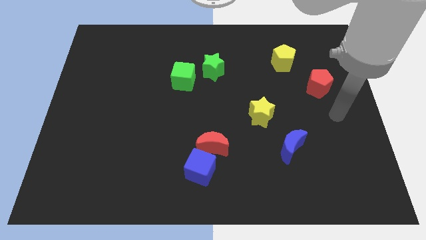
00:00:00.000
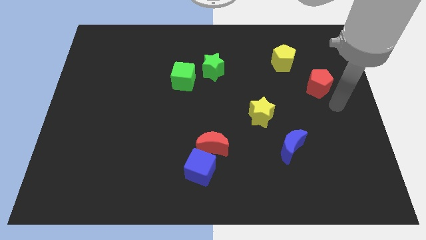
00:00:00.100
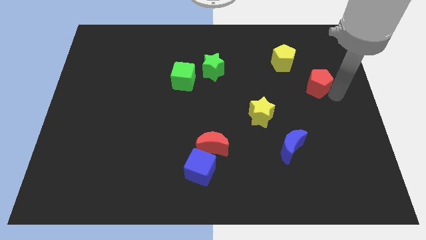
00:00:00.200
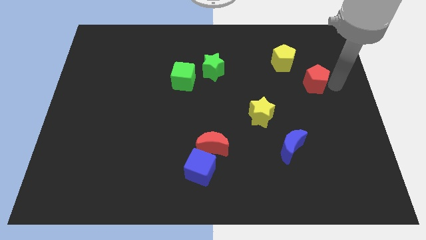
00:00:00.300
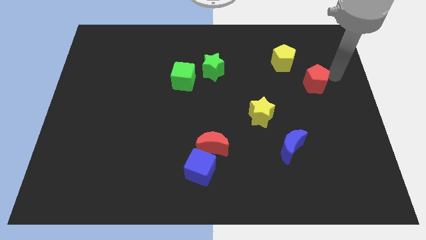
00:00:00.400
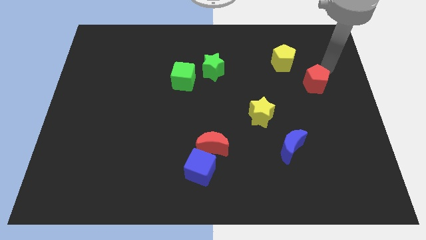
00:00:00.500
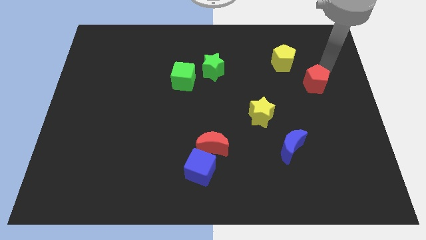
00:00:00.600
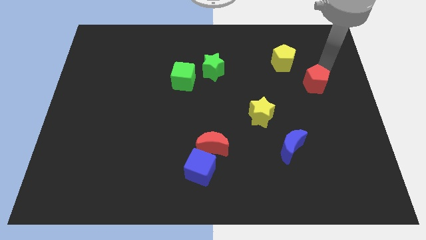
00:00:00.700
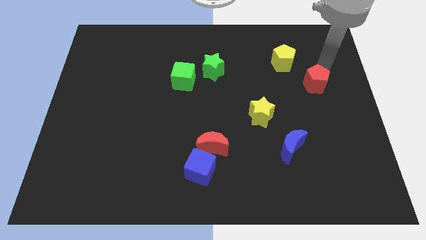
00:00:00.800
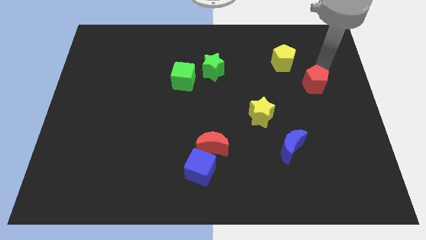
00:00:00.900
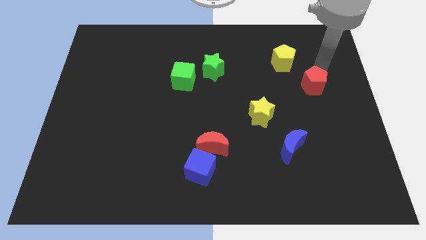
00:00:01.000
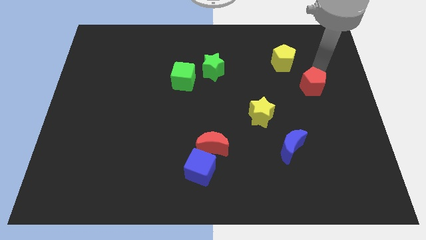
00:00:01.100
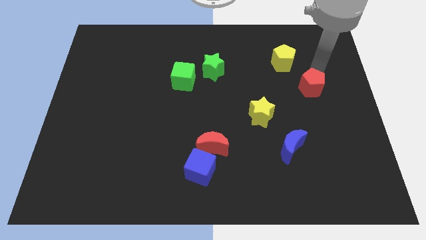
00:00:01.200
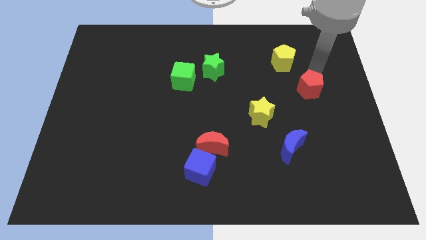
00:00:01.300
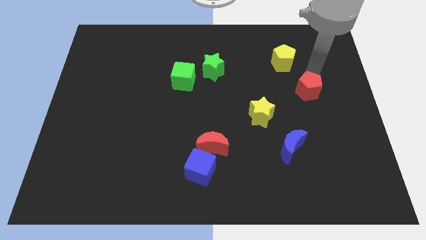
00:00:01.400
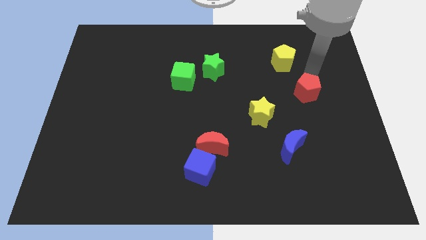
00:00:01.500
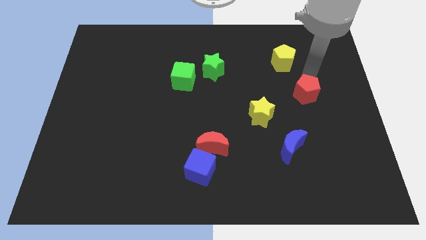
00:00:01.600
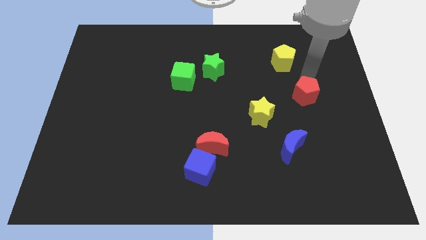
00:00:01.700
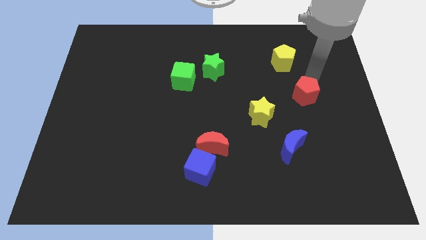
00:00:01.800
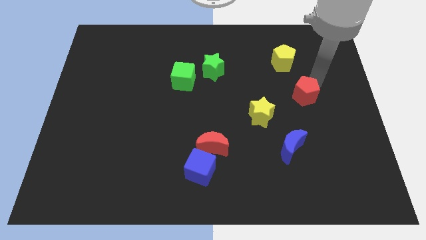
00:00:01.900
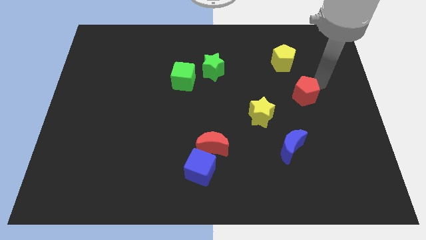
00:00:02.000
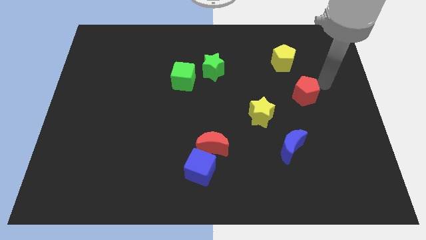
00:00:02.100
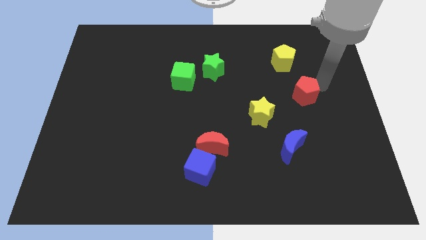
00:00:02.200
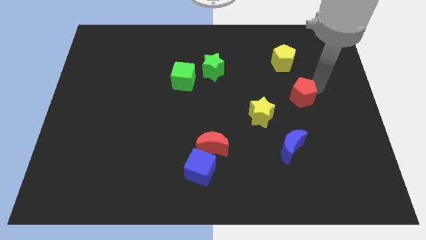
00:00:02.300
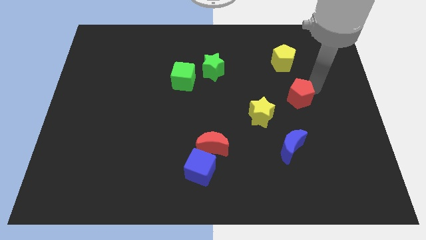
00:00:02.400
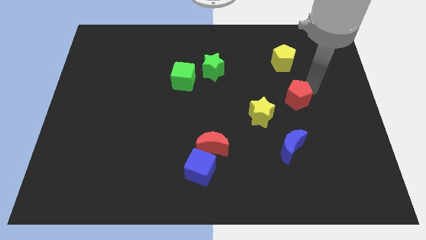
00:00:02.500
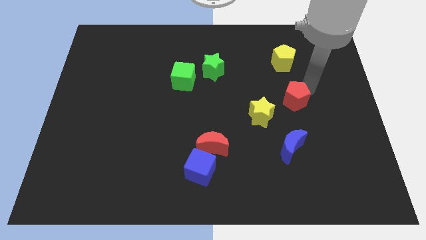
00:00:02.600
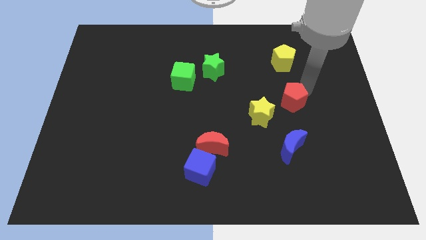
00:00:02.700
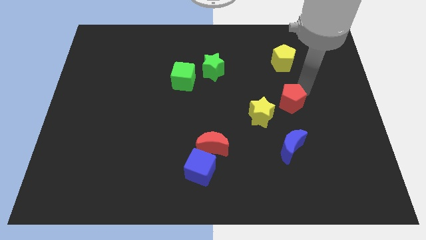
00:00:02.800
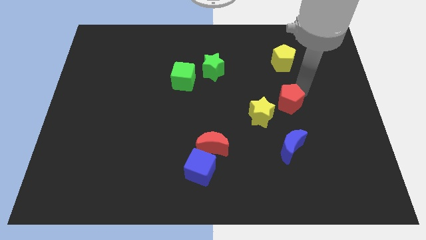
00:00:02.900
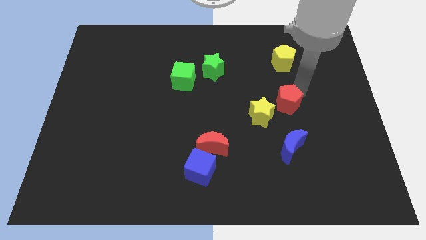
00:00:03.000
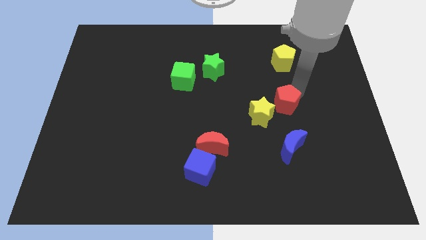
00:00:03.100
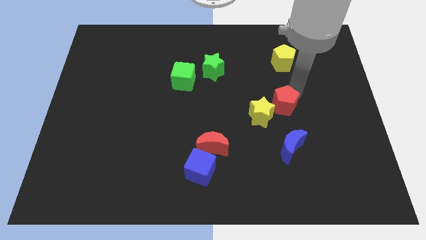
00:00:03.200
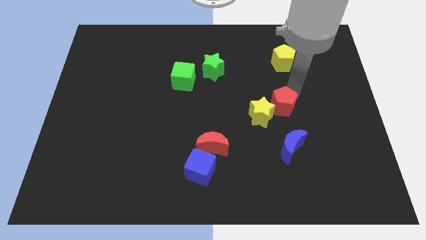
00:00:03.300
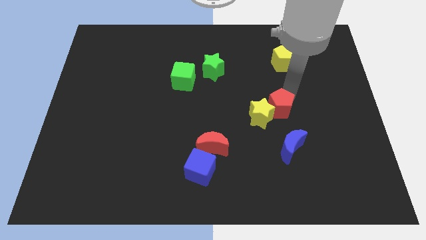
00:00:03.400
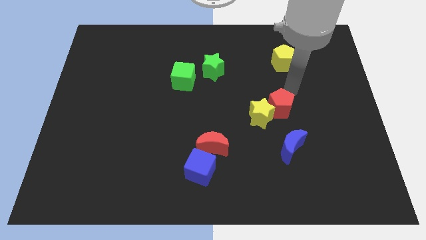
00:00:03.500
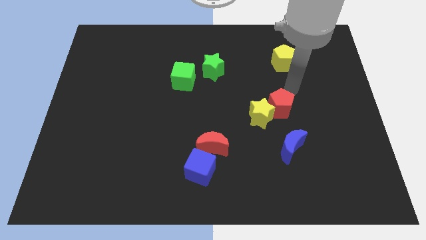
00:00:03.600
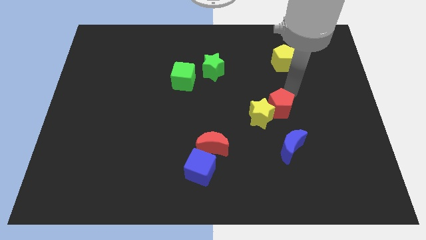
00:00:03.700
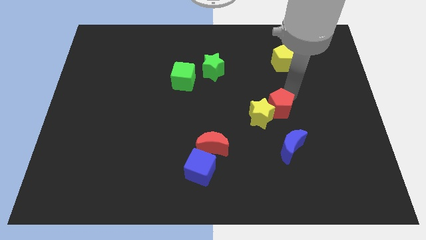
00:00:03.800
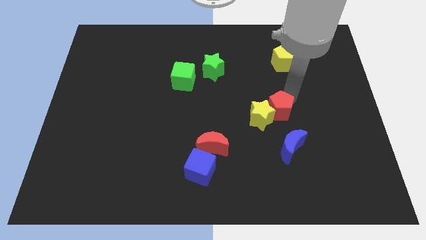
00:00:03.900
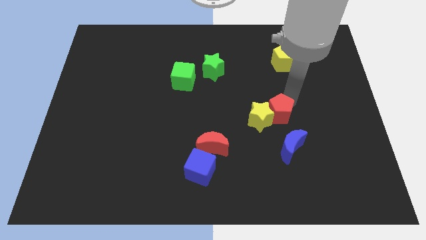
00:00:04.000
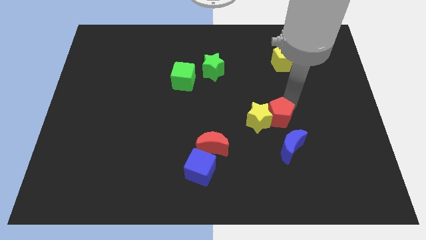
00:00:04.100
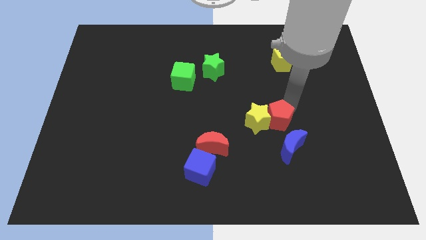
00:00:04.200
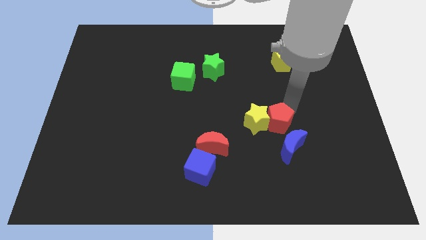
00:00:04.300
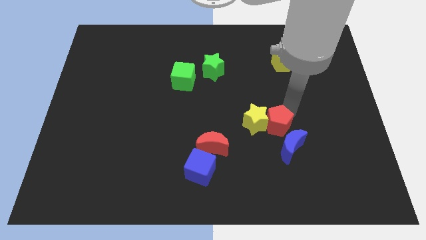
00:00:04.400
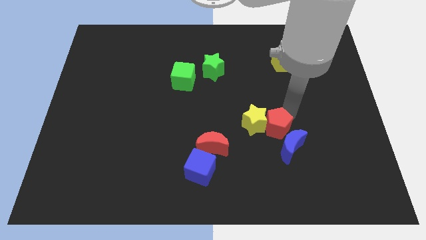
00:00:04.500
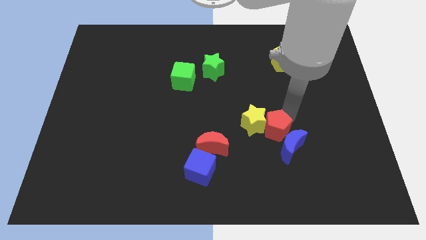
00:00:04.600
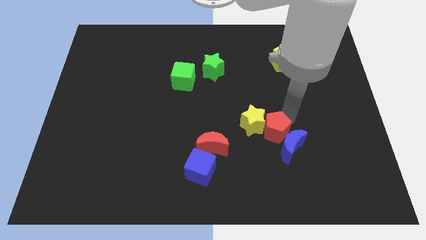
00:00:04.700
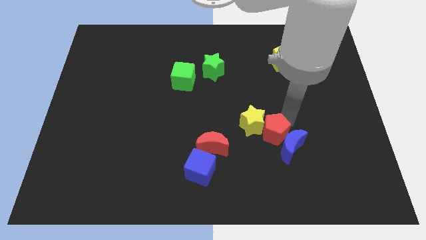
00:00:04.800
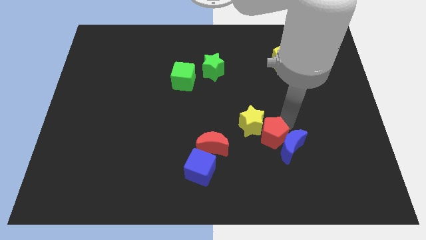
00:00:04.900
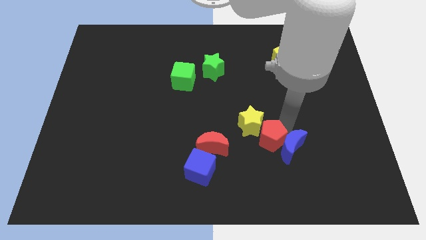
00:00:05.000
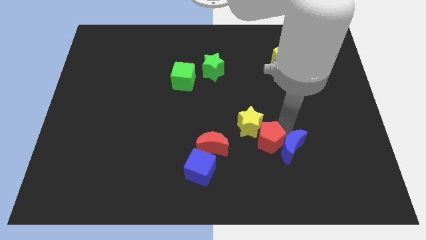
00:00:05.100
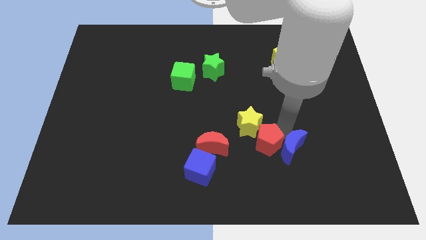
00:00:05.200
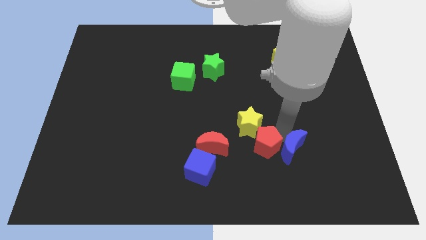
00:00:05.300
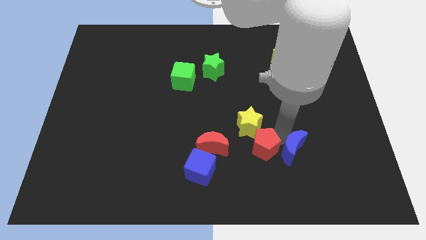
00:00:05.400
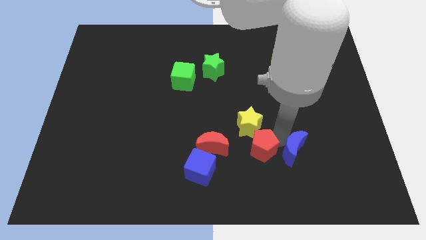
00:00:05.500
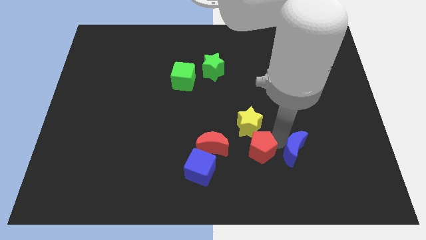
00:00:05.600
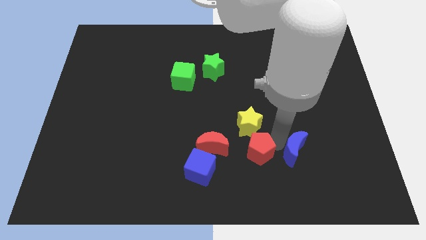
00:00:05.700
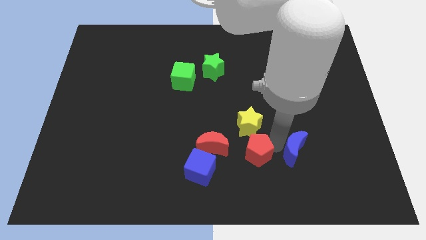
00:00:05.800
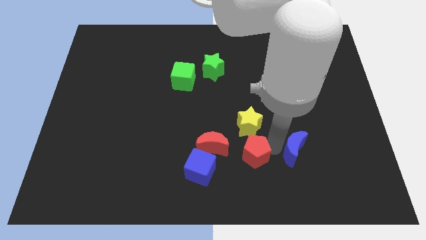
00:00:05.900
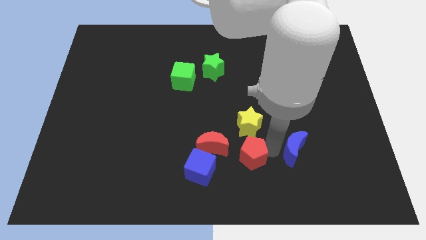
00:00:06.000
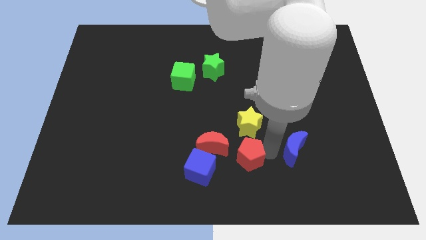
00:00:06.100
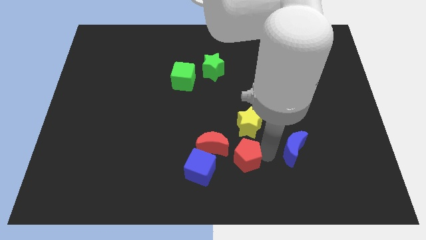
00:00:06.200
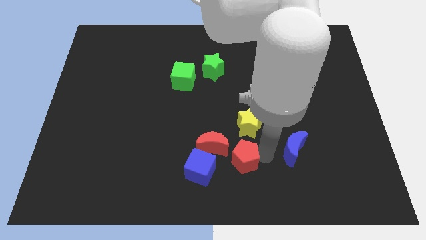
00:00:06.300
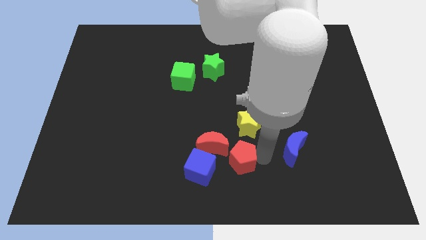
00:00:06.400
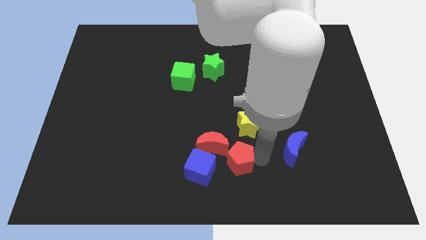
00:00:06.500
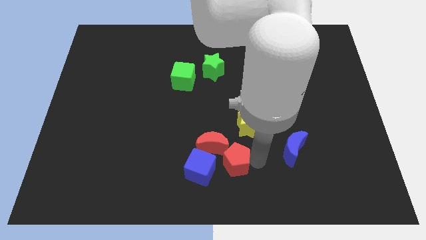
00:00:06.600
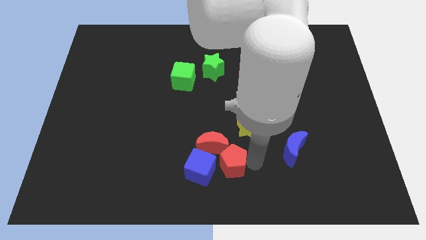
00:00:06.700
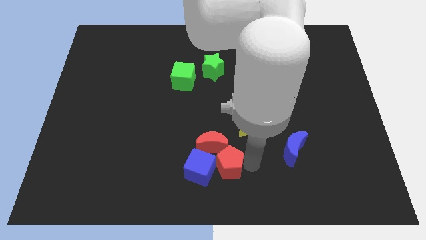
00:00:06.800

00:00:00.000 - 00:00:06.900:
move the red pentagon to the blue cube

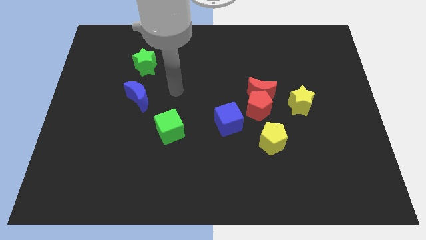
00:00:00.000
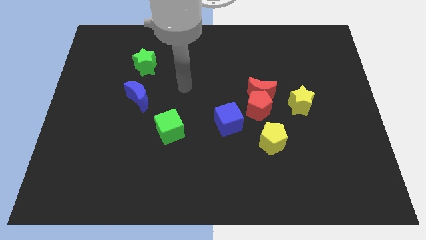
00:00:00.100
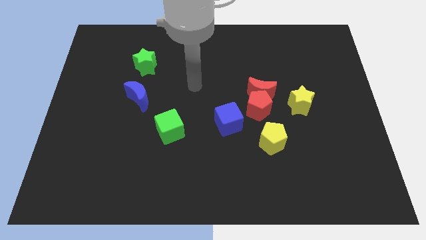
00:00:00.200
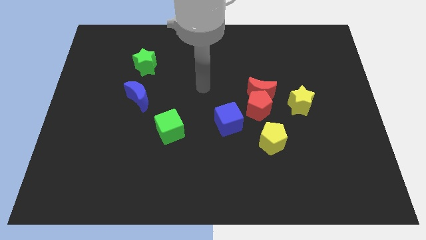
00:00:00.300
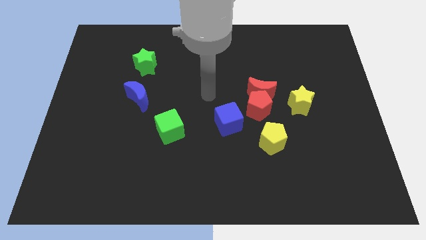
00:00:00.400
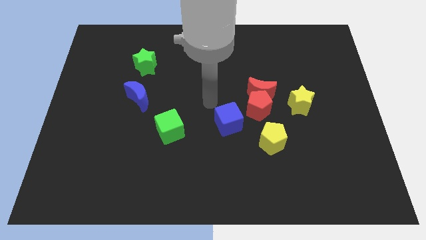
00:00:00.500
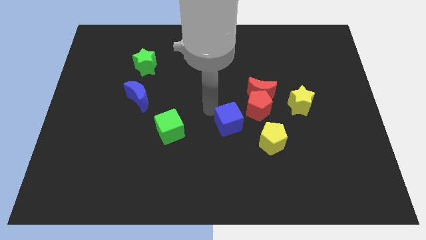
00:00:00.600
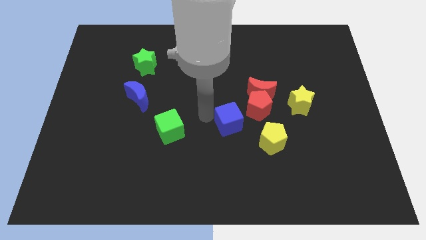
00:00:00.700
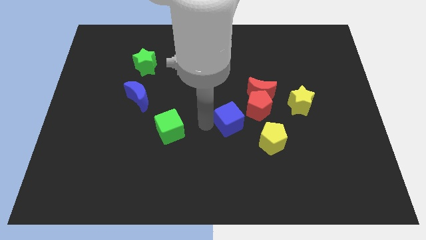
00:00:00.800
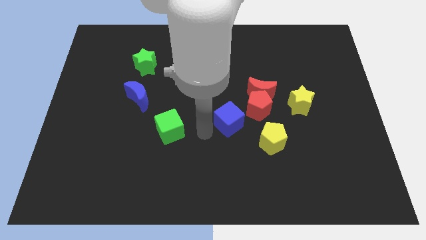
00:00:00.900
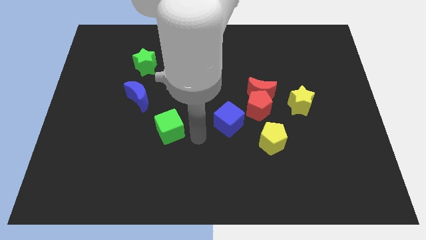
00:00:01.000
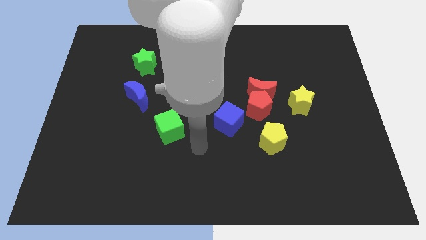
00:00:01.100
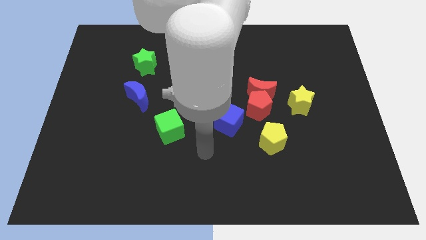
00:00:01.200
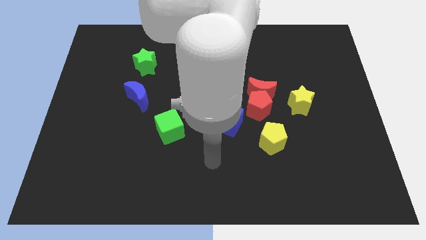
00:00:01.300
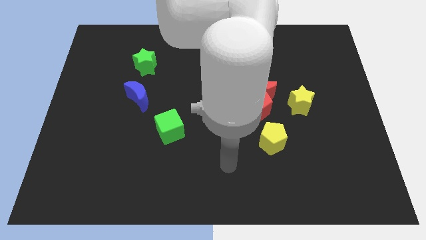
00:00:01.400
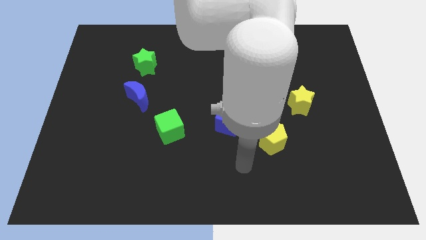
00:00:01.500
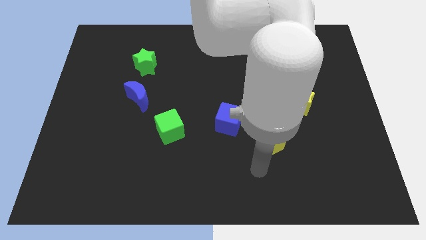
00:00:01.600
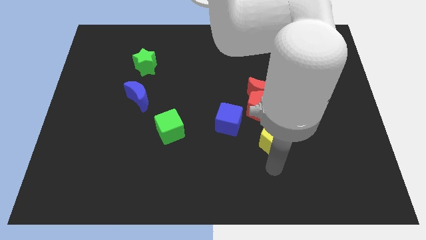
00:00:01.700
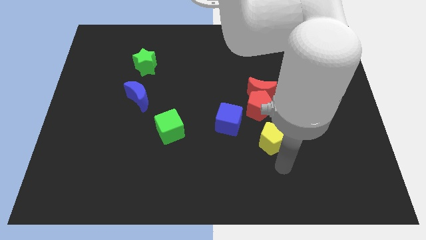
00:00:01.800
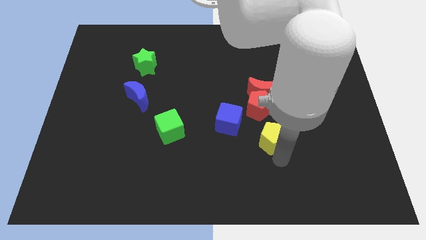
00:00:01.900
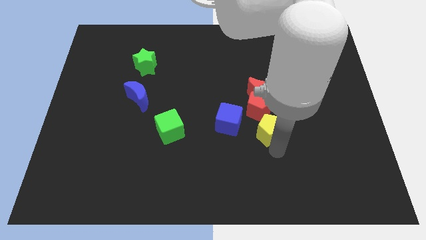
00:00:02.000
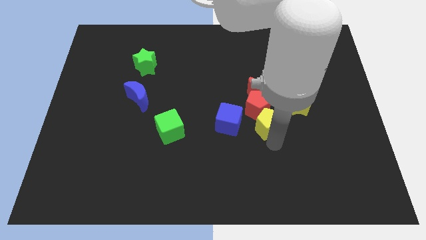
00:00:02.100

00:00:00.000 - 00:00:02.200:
move the yellow pentagon to the red pentagon
